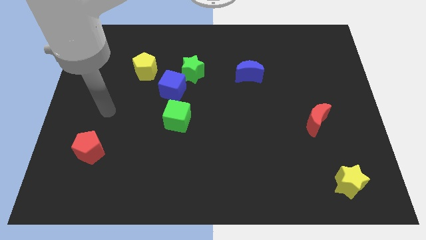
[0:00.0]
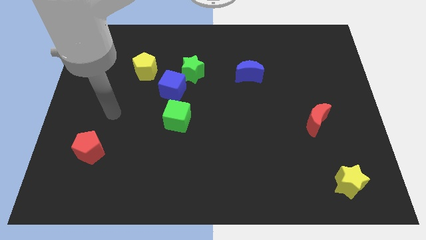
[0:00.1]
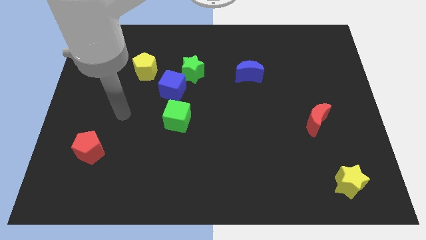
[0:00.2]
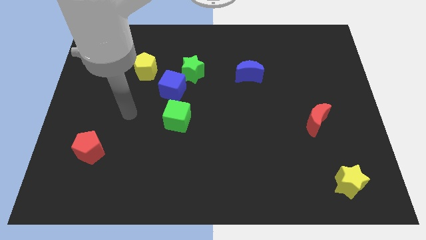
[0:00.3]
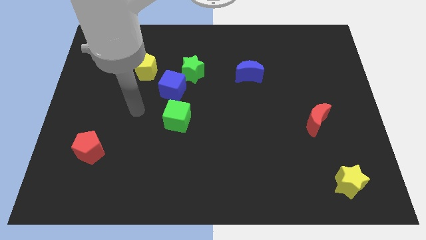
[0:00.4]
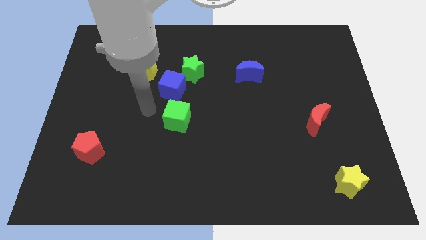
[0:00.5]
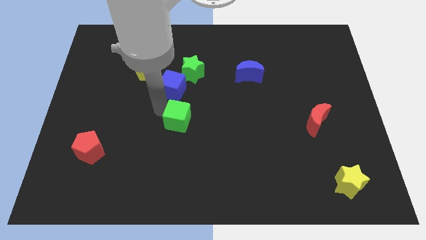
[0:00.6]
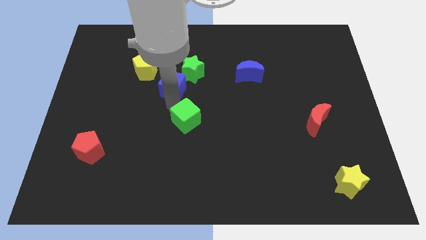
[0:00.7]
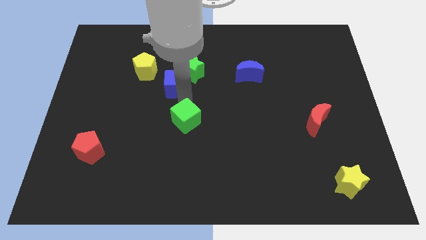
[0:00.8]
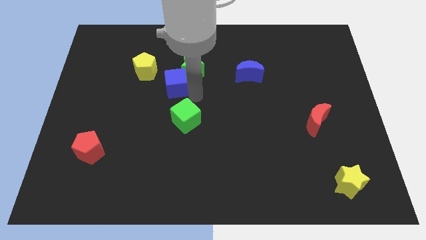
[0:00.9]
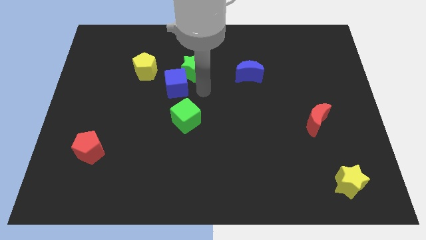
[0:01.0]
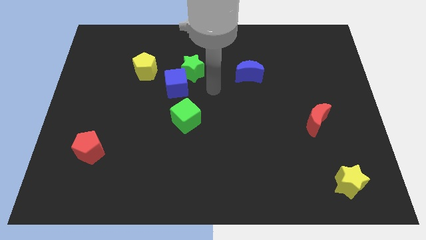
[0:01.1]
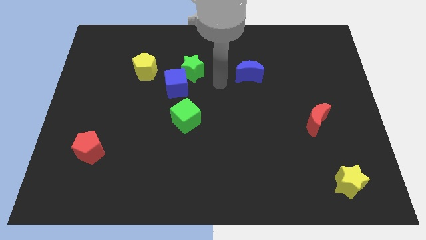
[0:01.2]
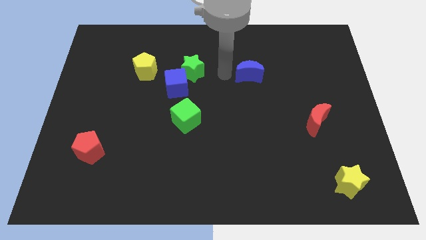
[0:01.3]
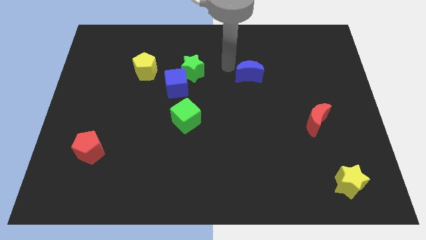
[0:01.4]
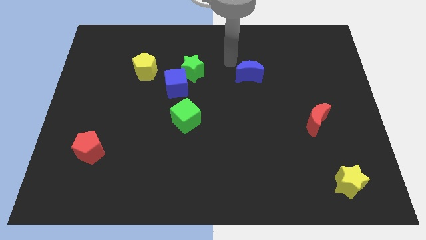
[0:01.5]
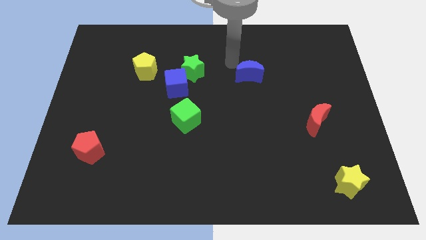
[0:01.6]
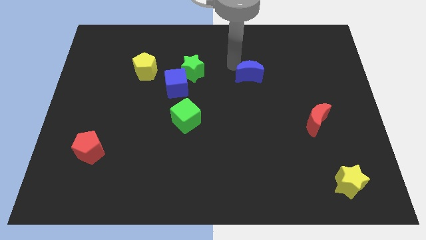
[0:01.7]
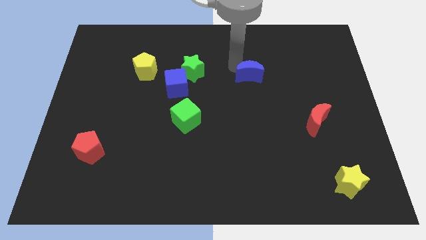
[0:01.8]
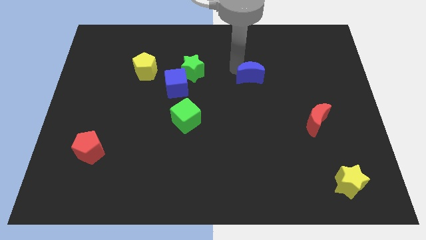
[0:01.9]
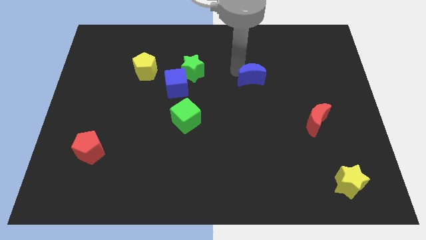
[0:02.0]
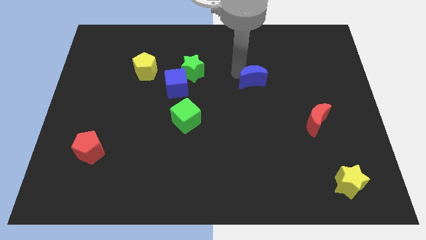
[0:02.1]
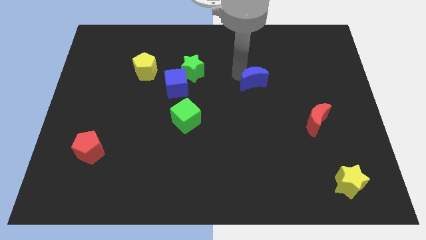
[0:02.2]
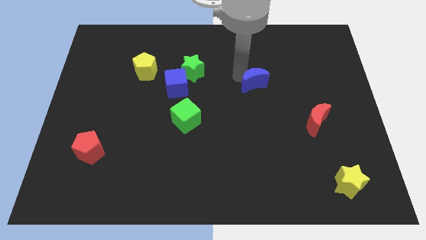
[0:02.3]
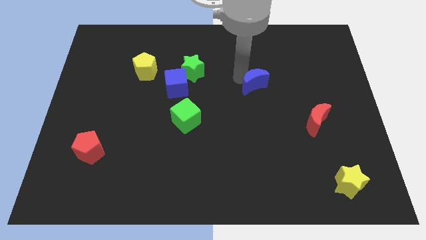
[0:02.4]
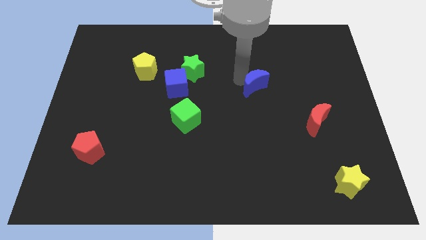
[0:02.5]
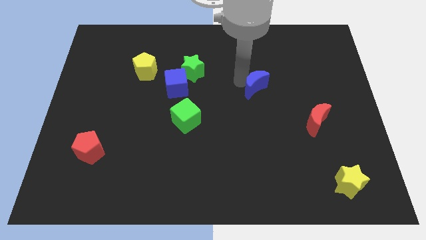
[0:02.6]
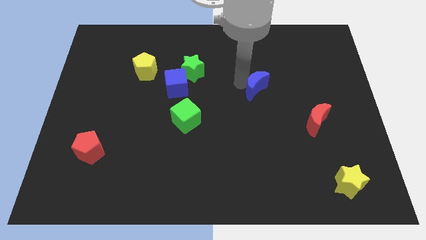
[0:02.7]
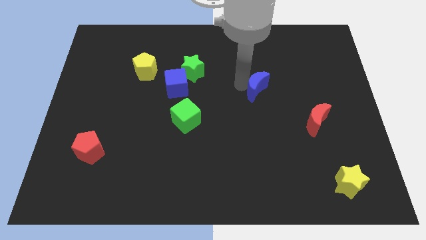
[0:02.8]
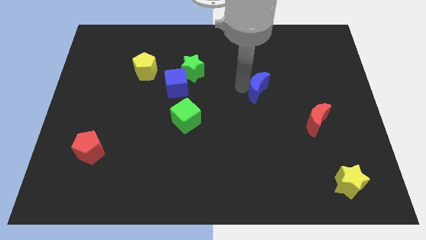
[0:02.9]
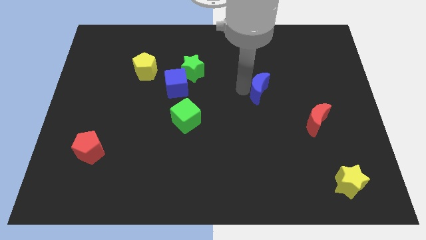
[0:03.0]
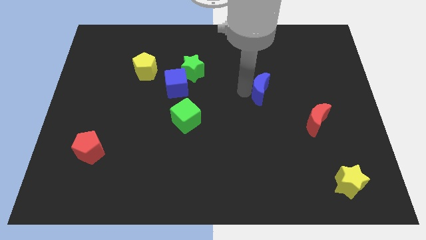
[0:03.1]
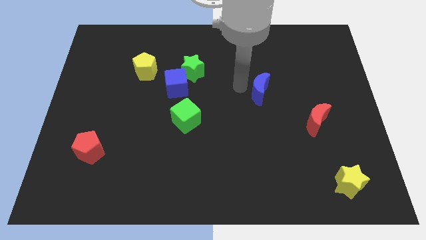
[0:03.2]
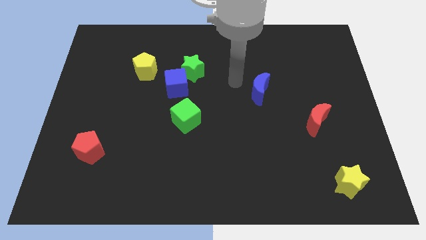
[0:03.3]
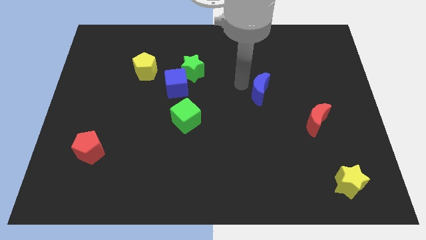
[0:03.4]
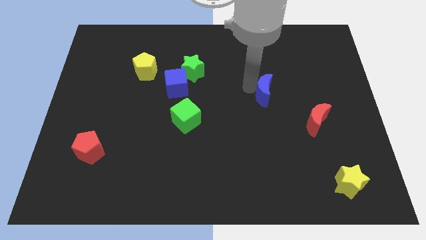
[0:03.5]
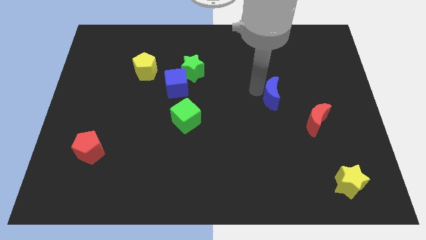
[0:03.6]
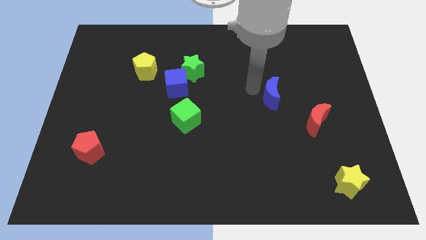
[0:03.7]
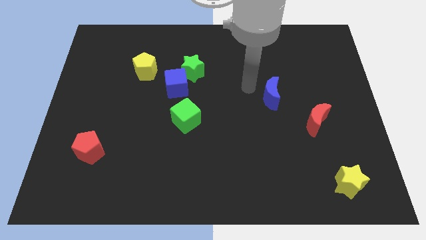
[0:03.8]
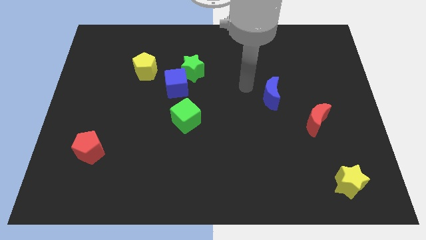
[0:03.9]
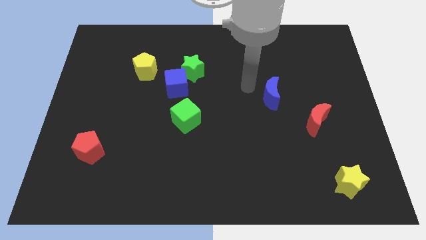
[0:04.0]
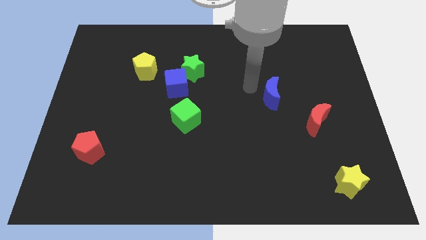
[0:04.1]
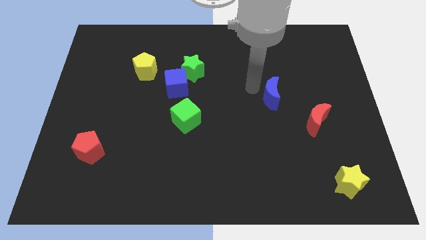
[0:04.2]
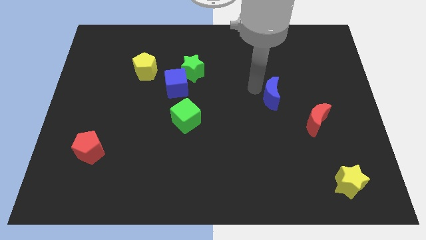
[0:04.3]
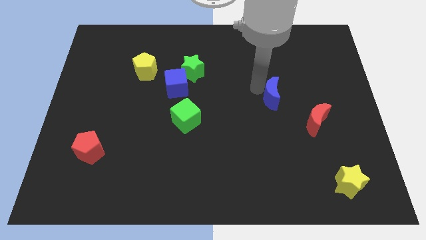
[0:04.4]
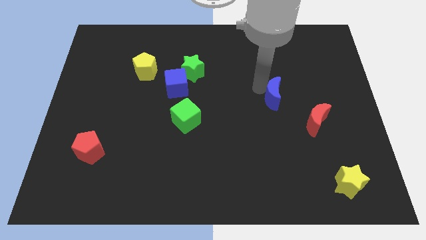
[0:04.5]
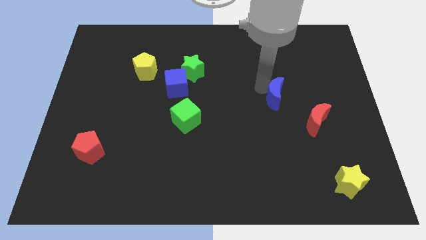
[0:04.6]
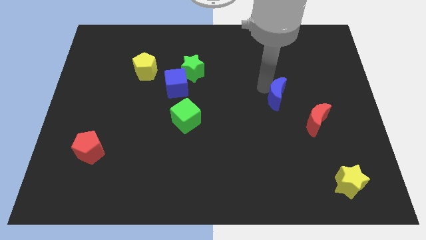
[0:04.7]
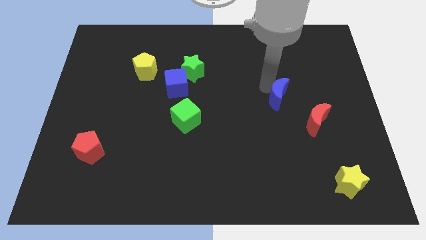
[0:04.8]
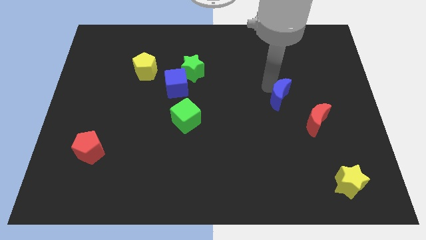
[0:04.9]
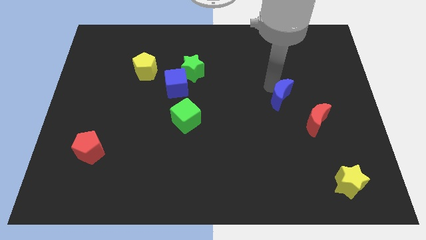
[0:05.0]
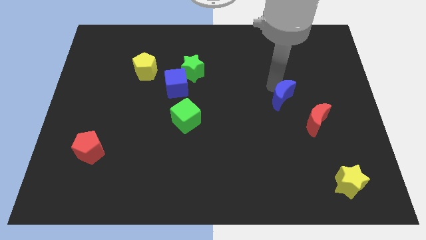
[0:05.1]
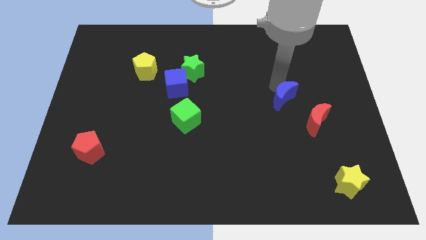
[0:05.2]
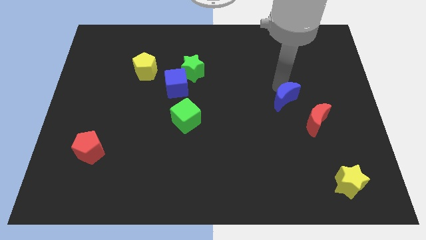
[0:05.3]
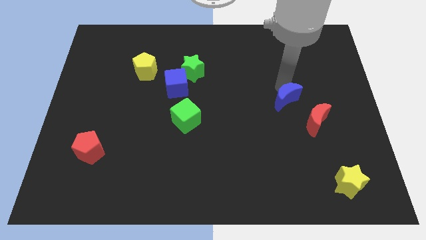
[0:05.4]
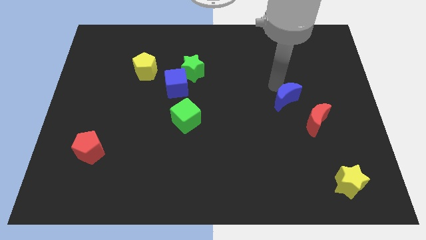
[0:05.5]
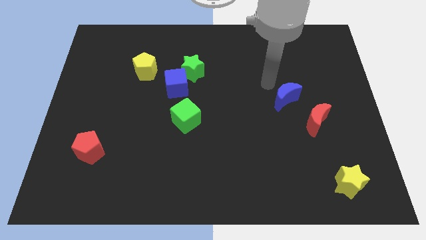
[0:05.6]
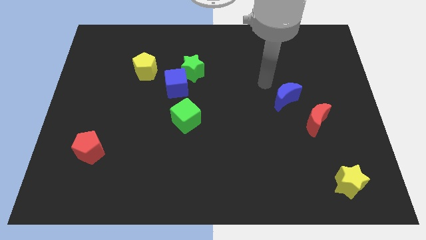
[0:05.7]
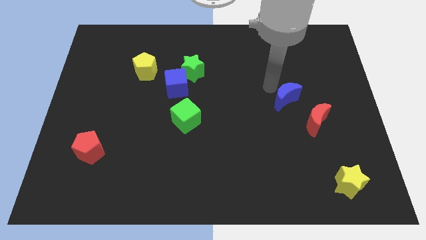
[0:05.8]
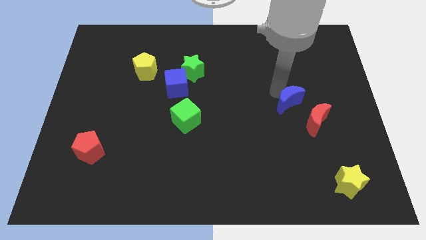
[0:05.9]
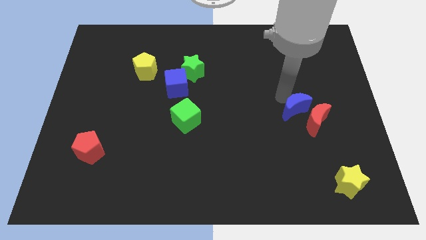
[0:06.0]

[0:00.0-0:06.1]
push the blue moon towards the red moon

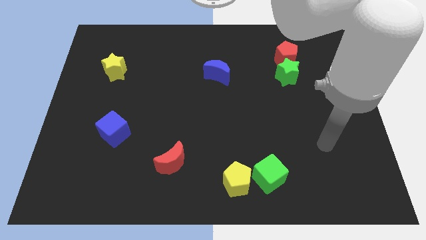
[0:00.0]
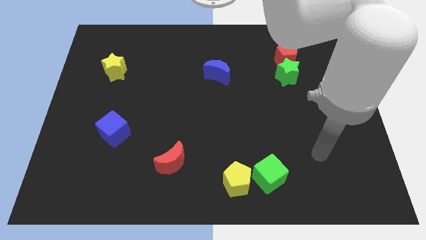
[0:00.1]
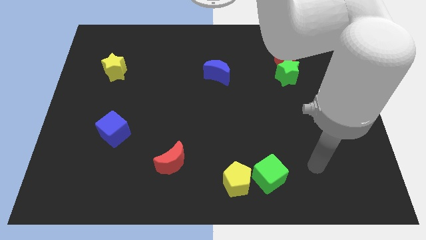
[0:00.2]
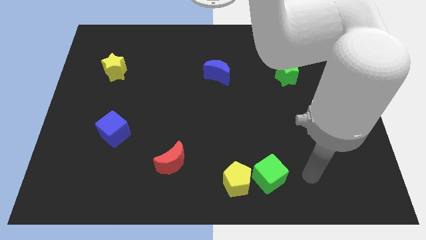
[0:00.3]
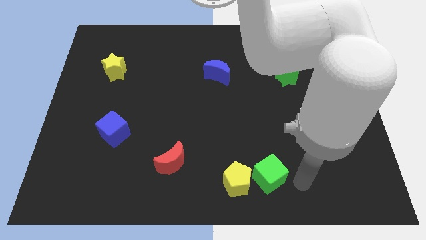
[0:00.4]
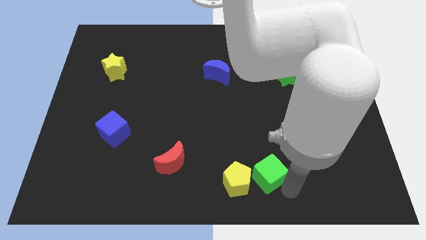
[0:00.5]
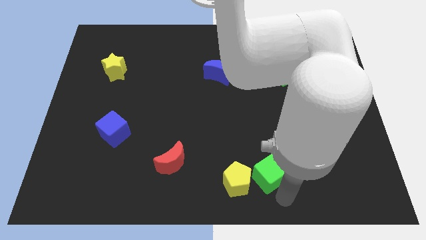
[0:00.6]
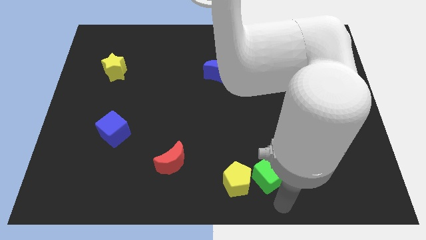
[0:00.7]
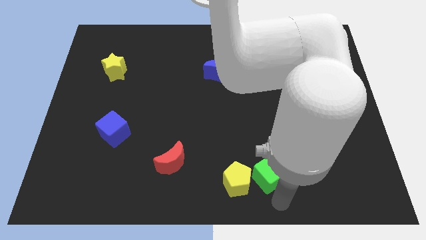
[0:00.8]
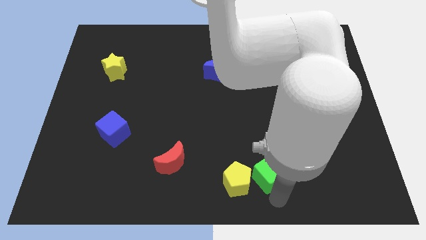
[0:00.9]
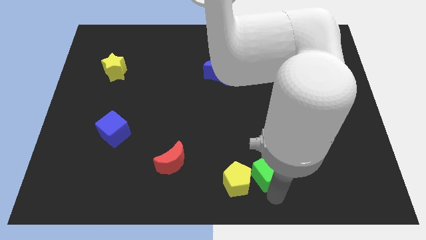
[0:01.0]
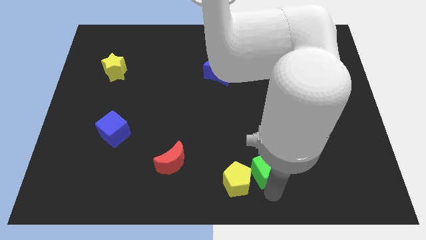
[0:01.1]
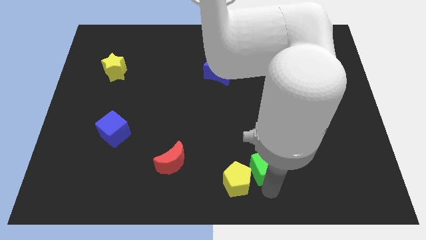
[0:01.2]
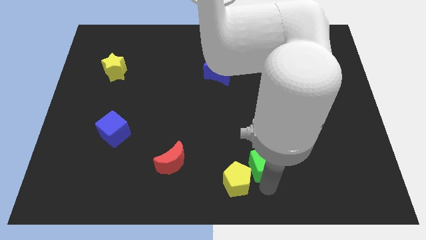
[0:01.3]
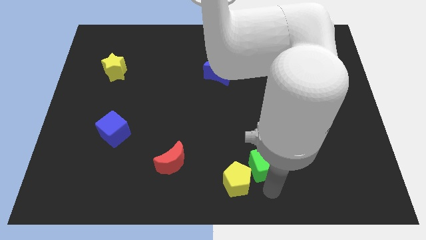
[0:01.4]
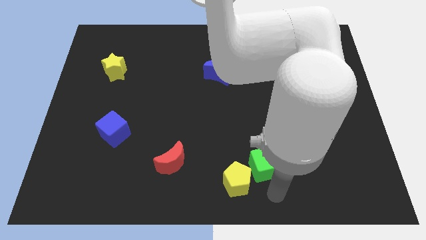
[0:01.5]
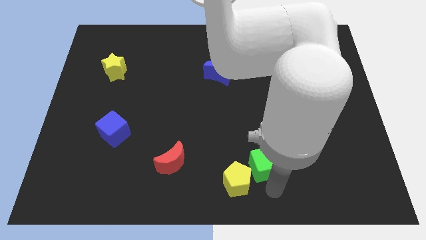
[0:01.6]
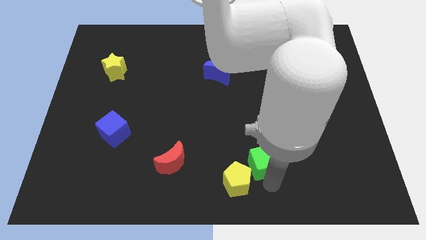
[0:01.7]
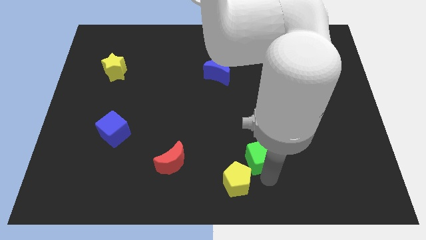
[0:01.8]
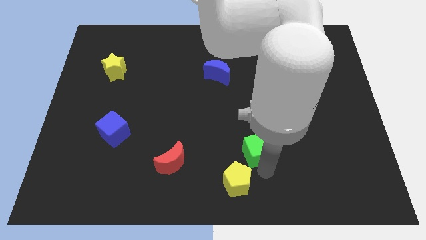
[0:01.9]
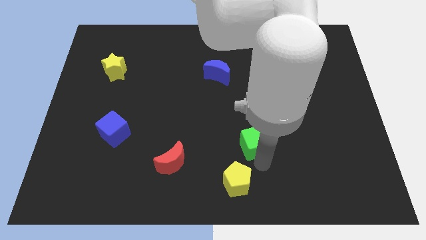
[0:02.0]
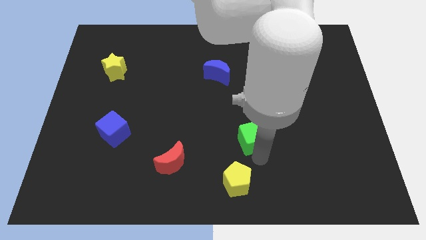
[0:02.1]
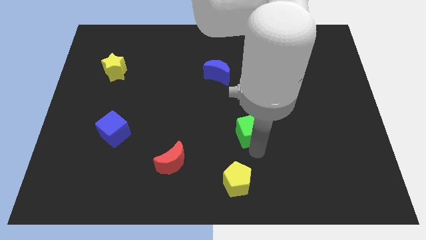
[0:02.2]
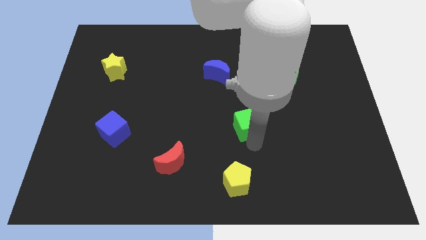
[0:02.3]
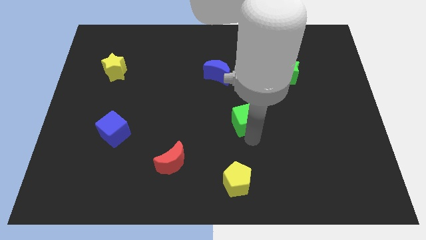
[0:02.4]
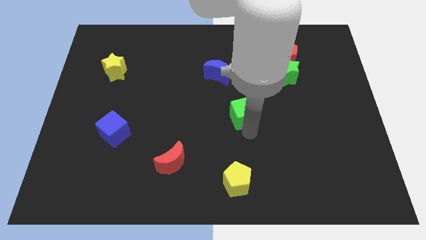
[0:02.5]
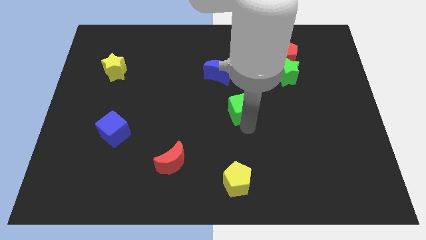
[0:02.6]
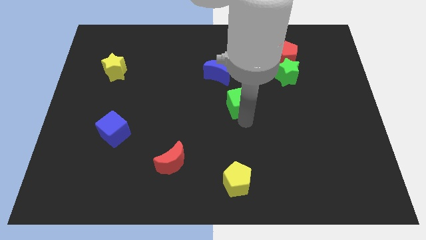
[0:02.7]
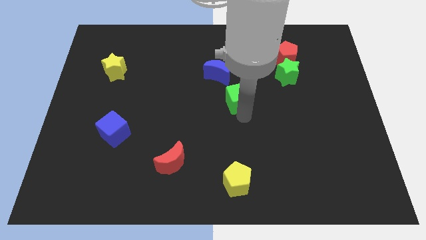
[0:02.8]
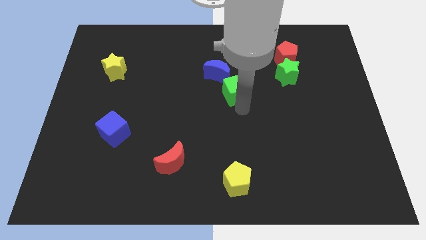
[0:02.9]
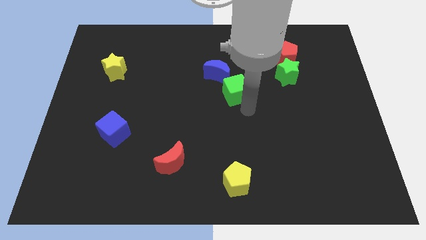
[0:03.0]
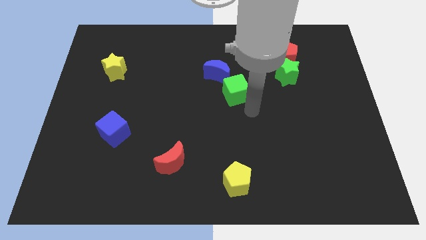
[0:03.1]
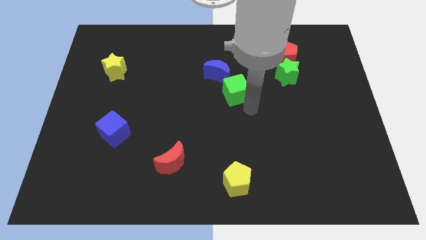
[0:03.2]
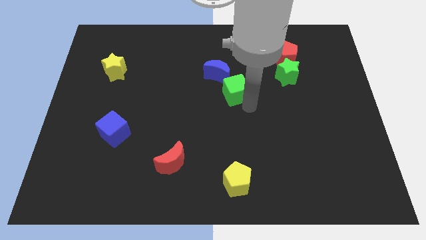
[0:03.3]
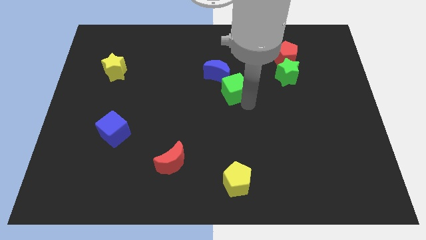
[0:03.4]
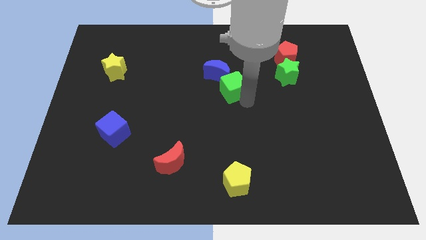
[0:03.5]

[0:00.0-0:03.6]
put the green cube close to the blue moon
